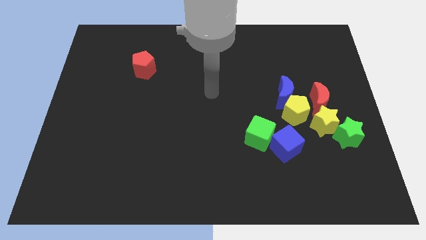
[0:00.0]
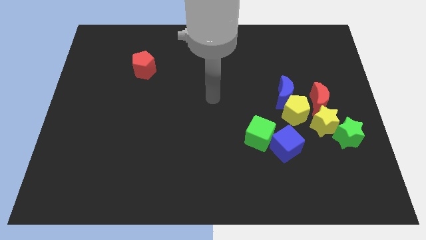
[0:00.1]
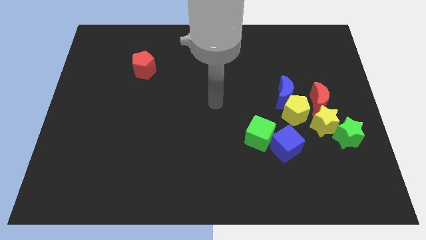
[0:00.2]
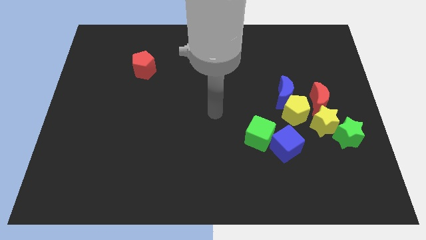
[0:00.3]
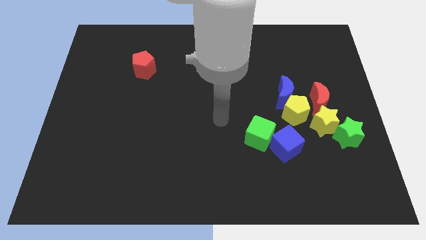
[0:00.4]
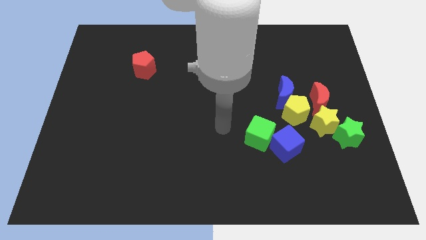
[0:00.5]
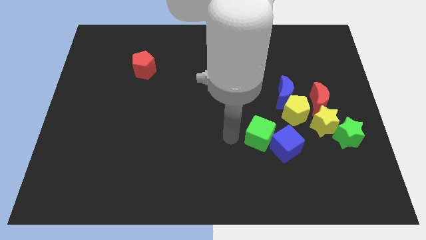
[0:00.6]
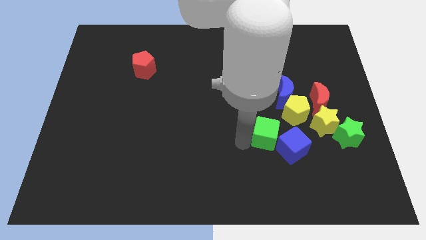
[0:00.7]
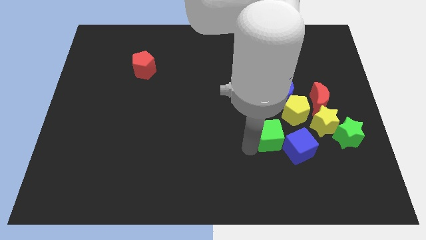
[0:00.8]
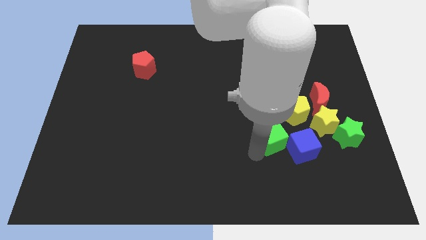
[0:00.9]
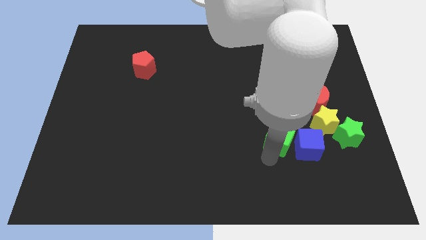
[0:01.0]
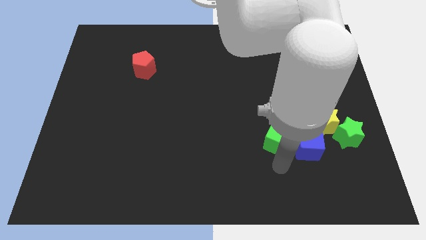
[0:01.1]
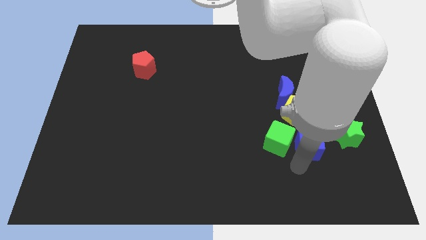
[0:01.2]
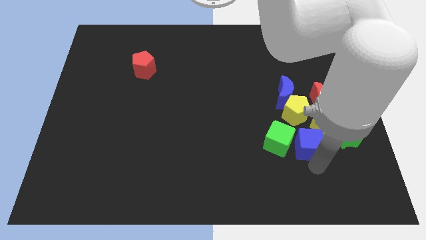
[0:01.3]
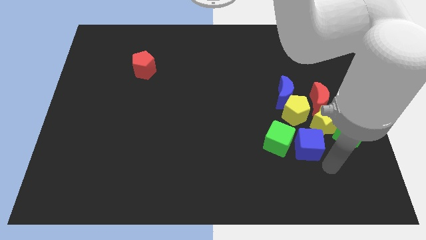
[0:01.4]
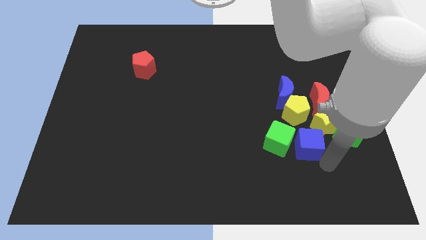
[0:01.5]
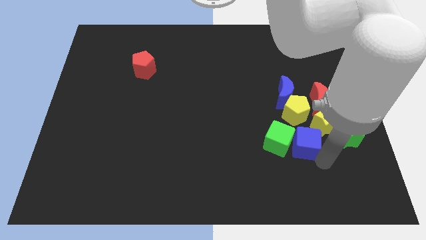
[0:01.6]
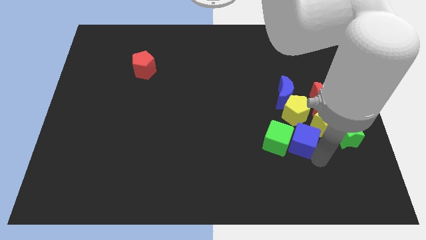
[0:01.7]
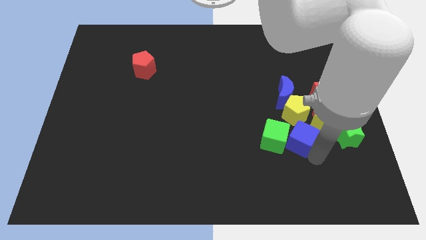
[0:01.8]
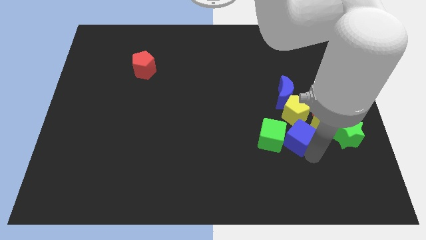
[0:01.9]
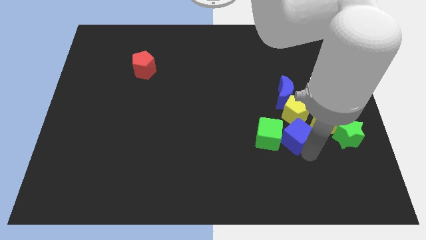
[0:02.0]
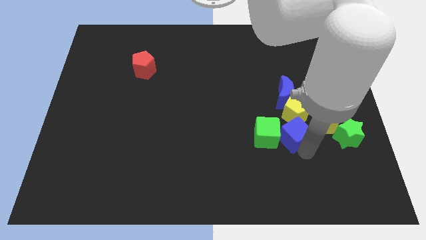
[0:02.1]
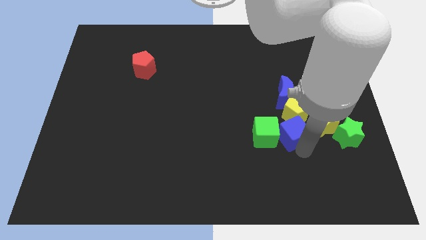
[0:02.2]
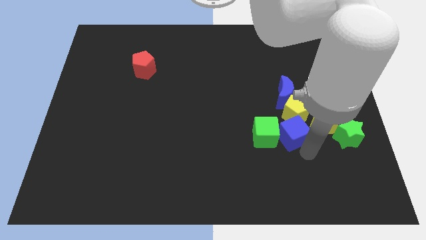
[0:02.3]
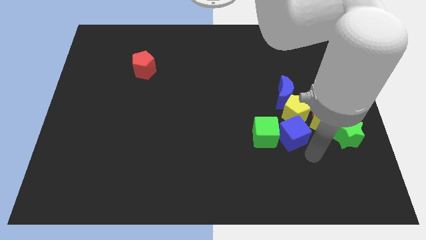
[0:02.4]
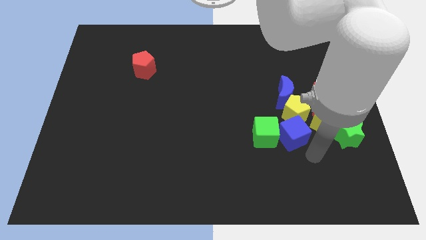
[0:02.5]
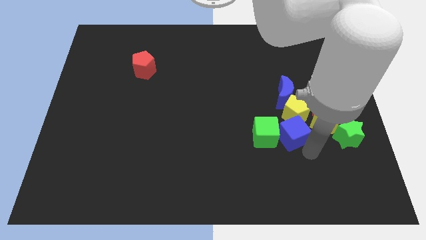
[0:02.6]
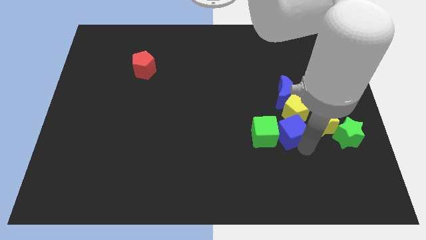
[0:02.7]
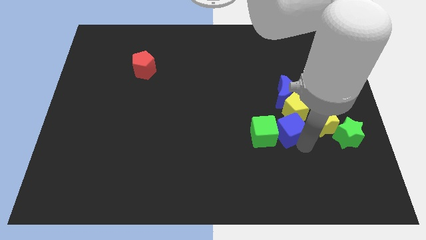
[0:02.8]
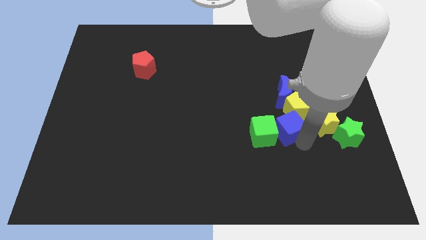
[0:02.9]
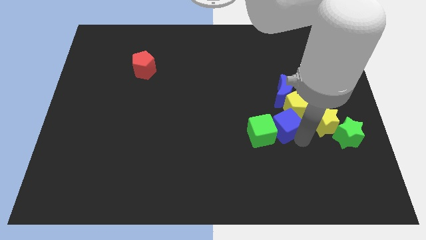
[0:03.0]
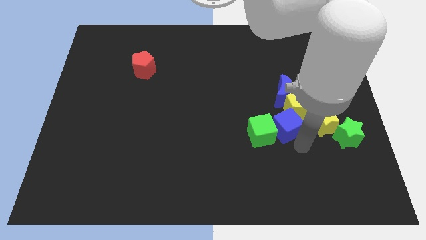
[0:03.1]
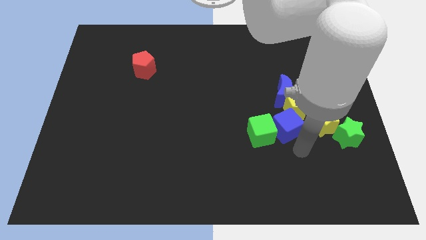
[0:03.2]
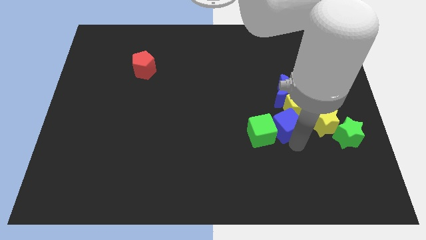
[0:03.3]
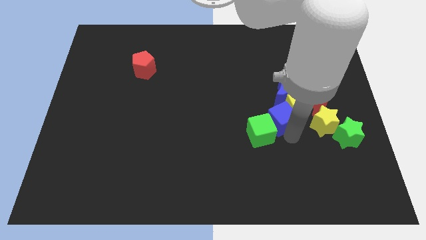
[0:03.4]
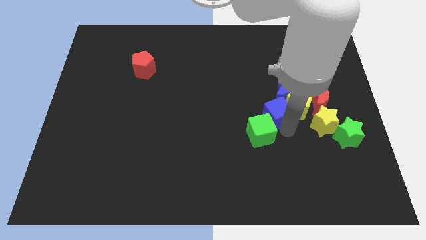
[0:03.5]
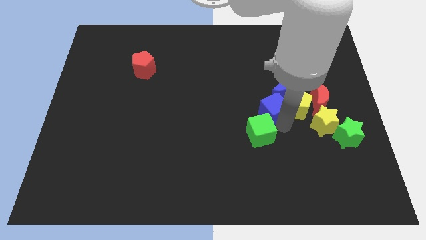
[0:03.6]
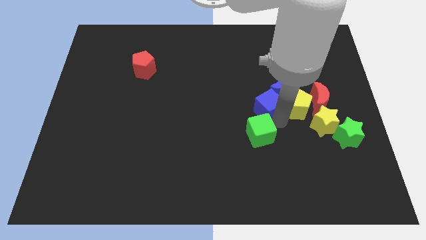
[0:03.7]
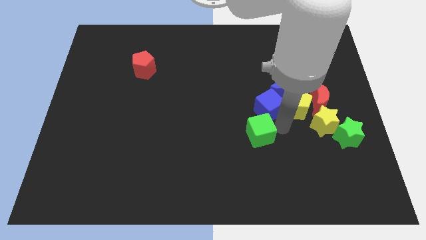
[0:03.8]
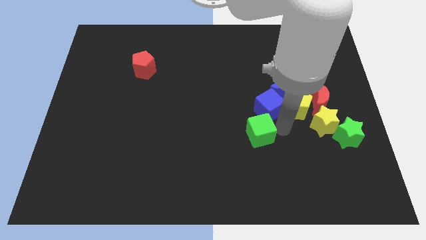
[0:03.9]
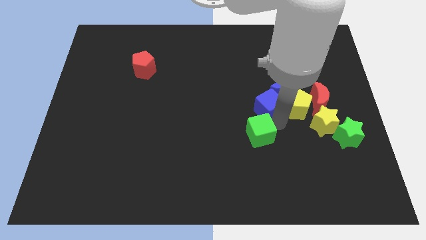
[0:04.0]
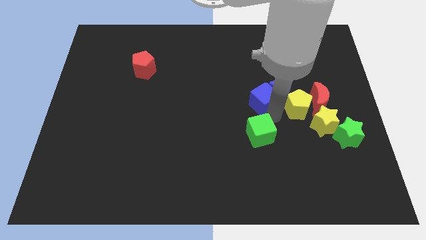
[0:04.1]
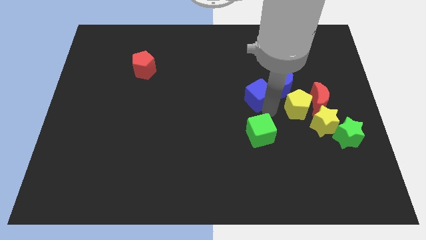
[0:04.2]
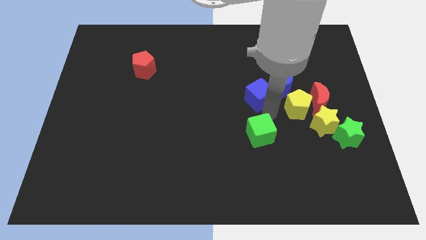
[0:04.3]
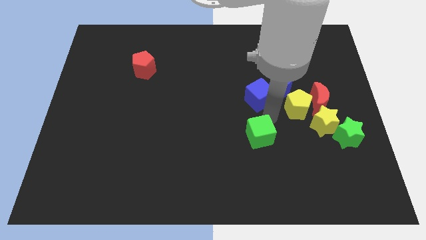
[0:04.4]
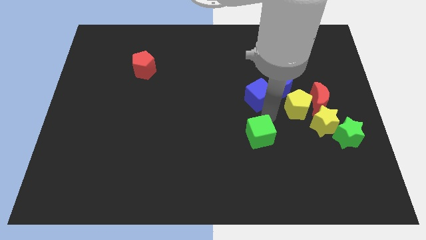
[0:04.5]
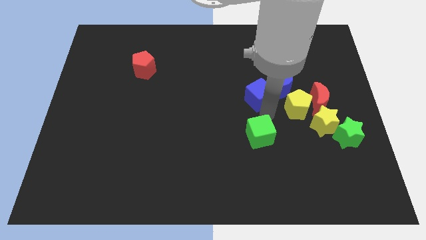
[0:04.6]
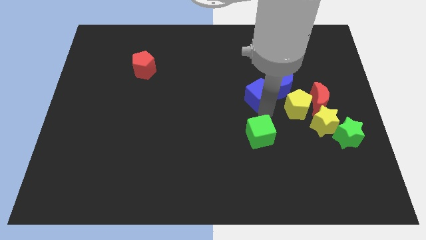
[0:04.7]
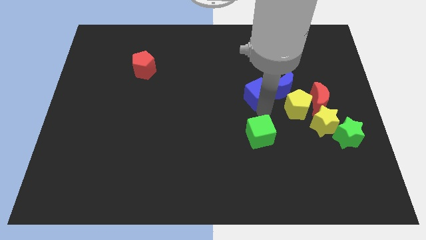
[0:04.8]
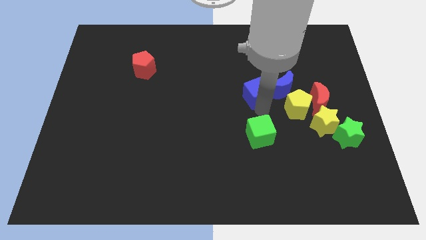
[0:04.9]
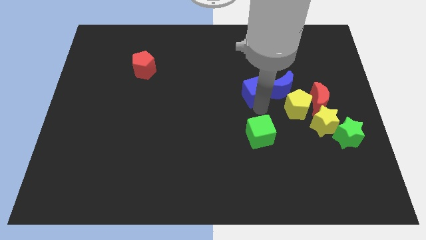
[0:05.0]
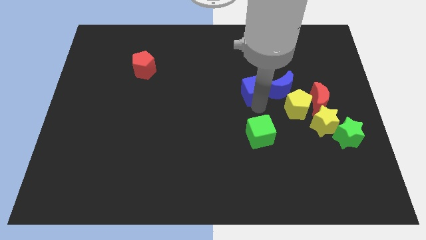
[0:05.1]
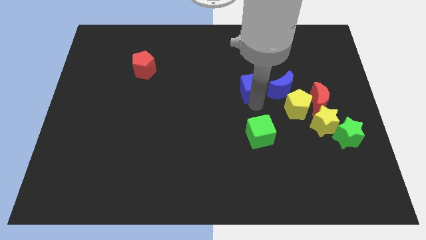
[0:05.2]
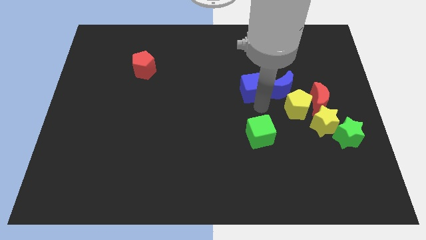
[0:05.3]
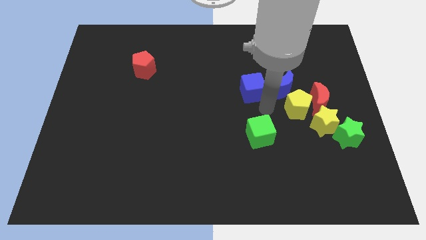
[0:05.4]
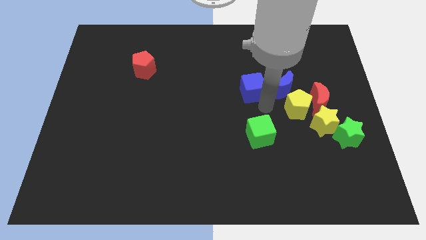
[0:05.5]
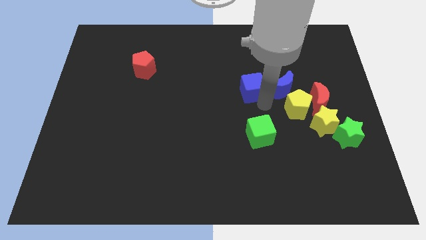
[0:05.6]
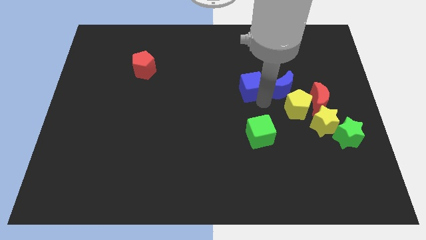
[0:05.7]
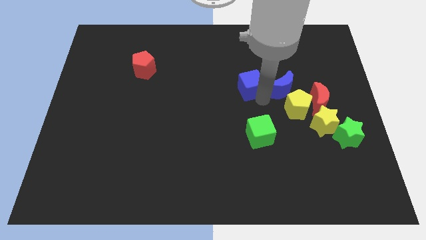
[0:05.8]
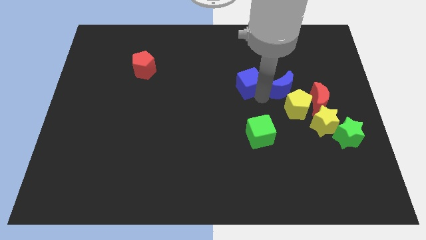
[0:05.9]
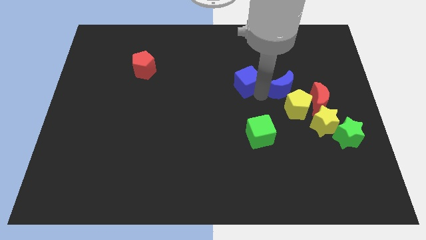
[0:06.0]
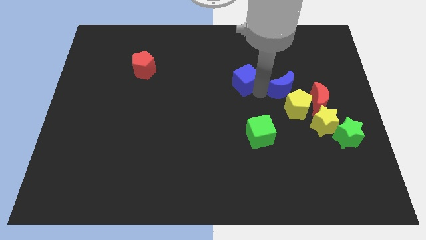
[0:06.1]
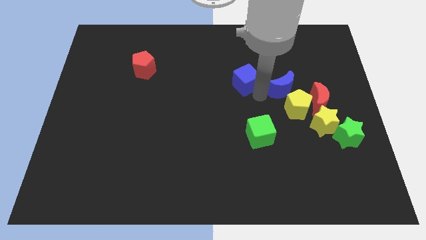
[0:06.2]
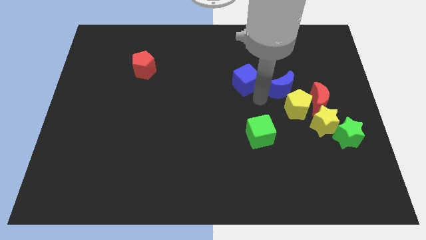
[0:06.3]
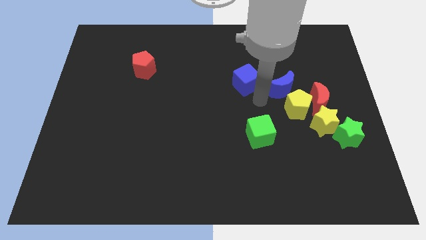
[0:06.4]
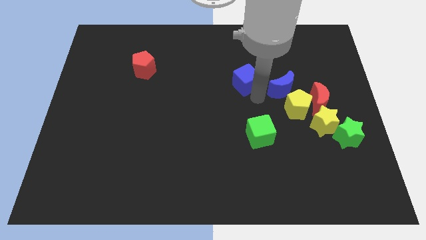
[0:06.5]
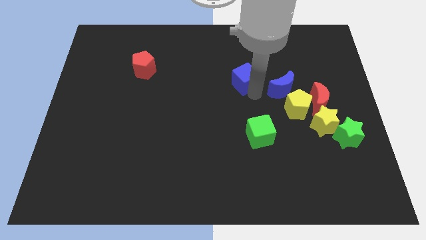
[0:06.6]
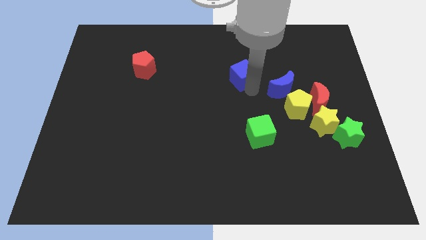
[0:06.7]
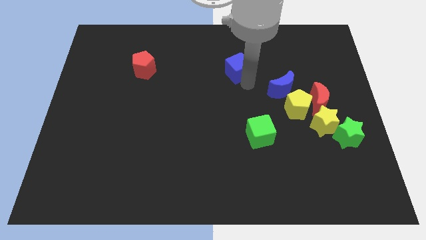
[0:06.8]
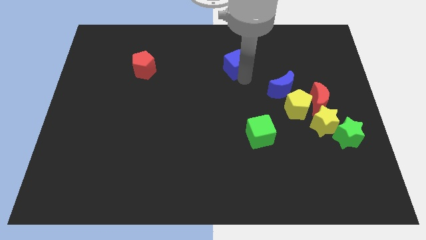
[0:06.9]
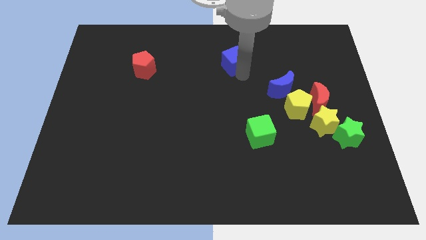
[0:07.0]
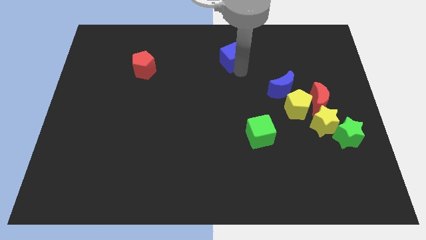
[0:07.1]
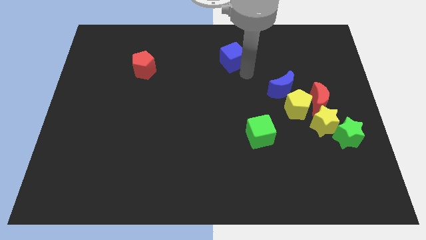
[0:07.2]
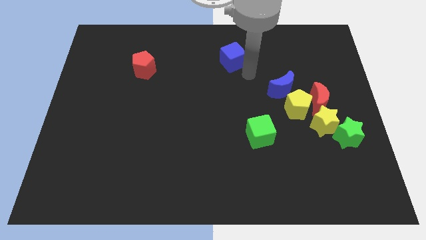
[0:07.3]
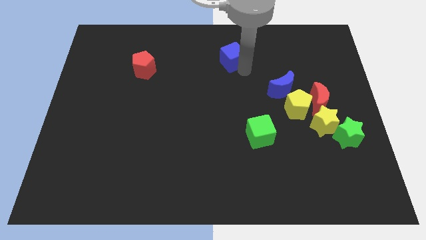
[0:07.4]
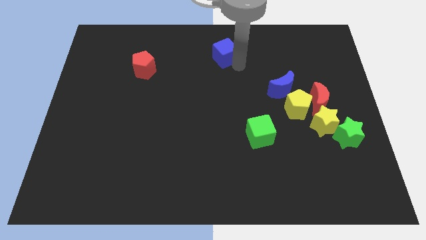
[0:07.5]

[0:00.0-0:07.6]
put the blue cube to the top side
